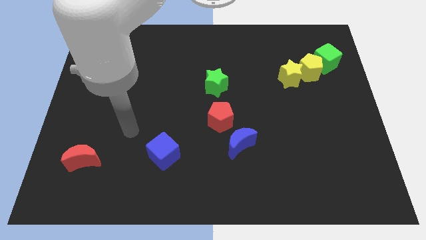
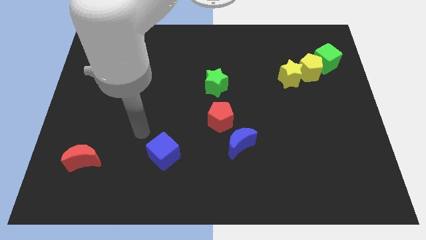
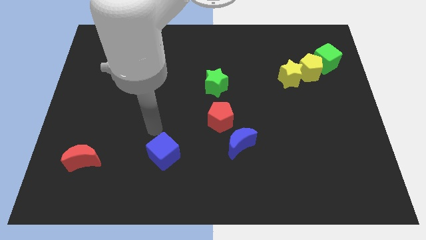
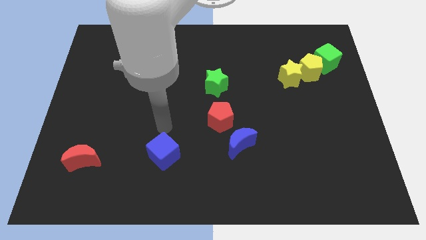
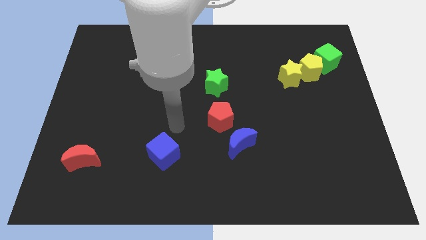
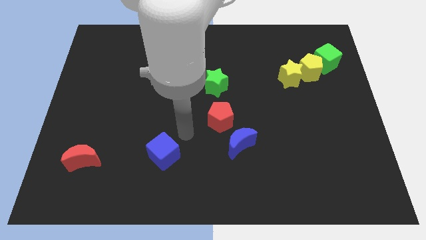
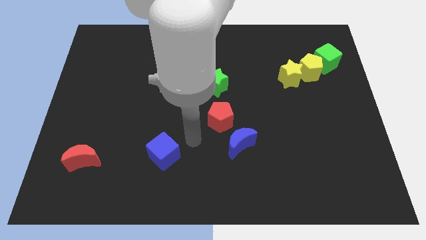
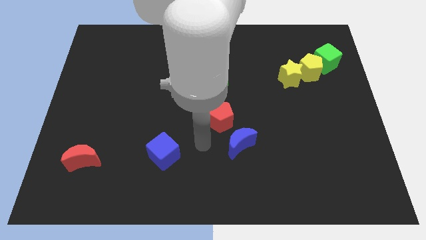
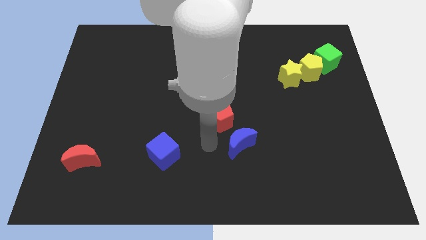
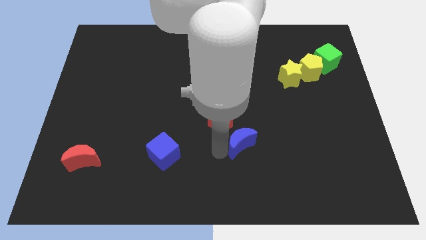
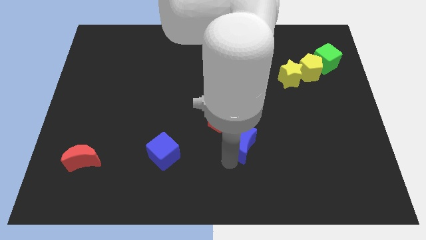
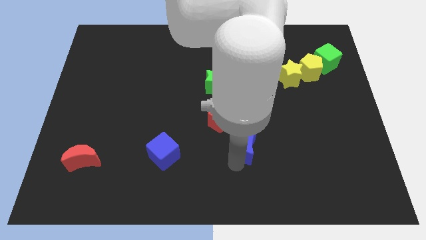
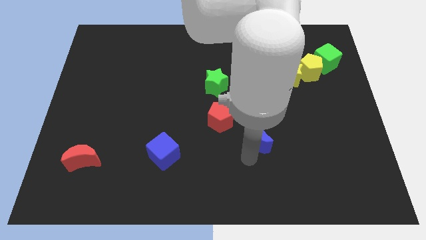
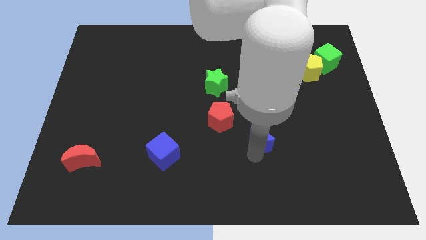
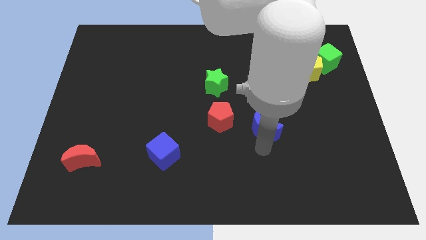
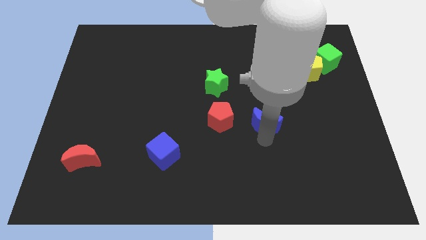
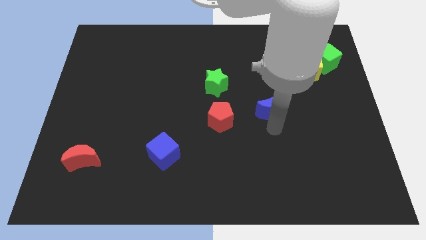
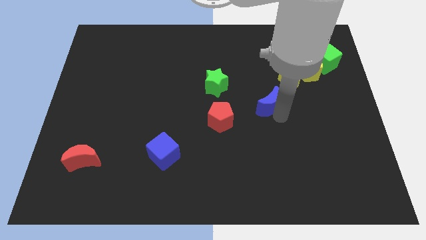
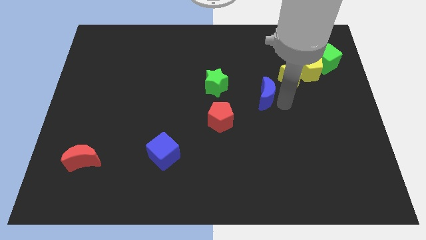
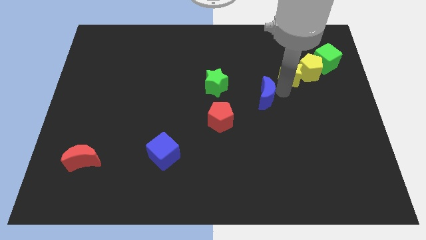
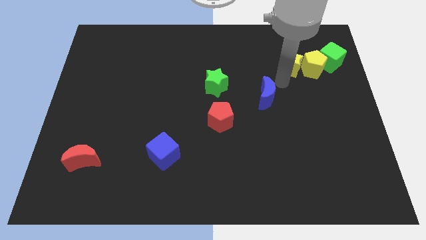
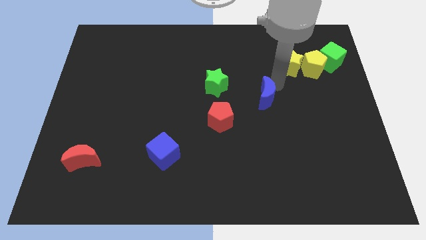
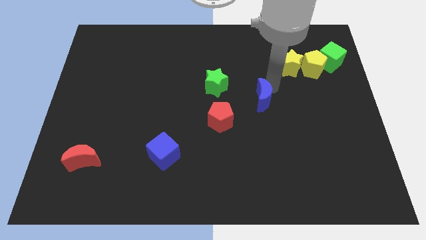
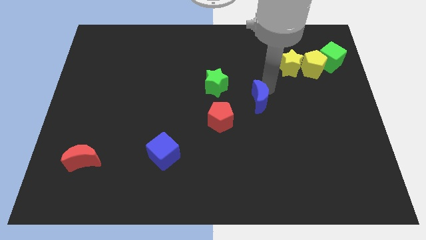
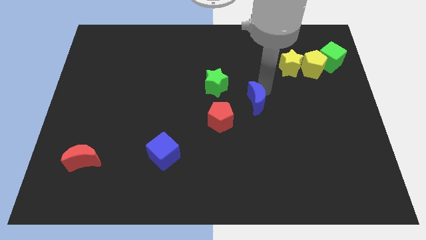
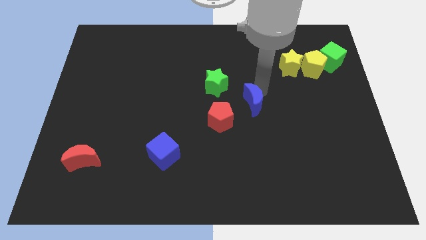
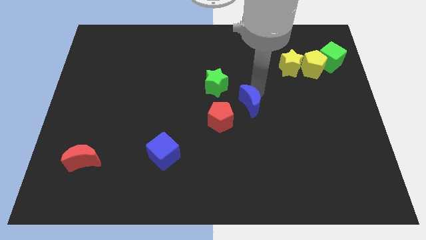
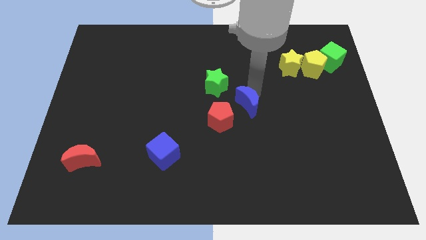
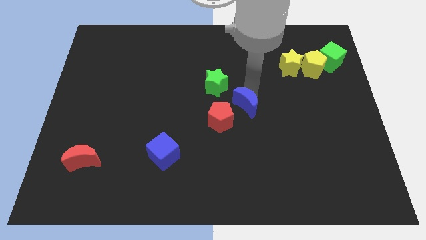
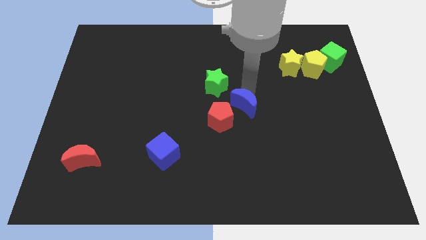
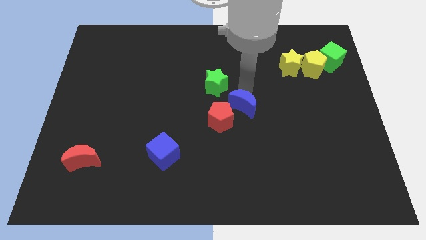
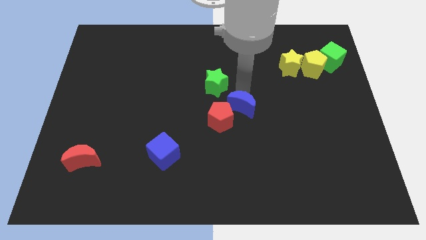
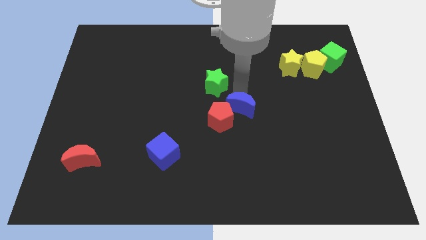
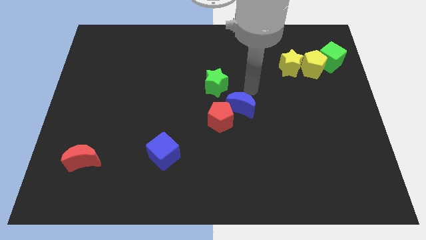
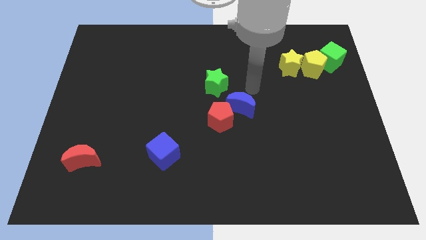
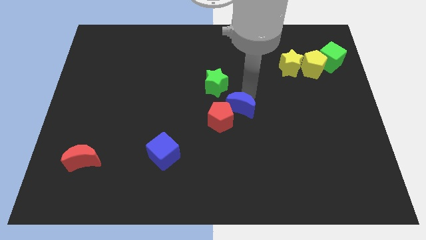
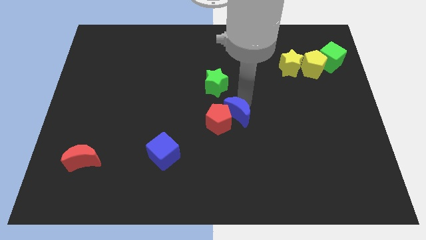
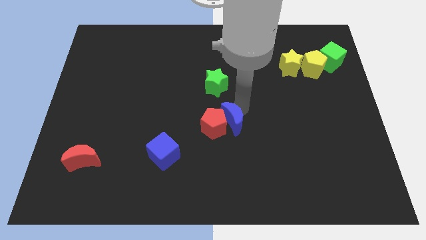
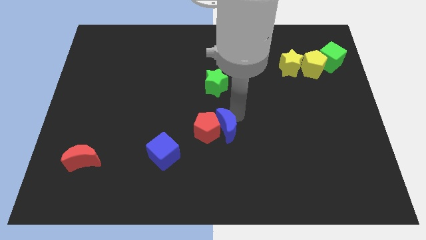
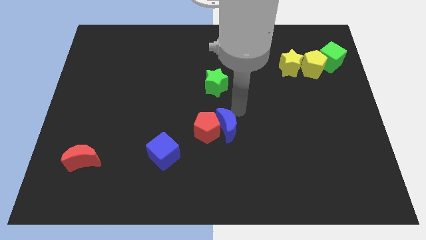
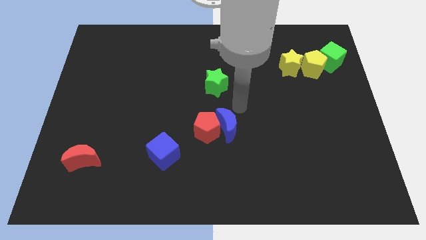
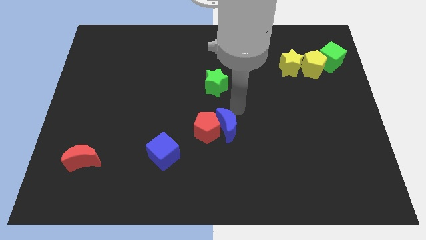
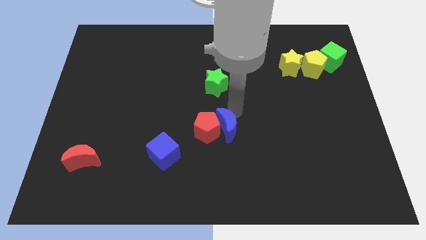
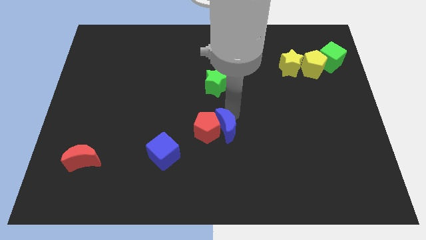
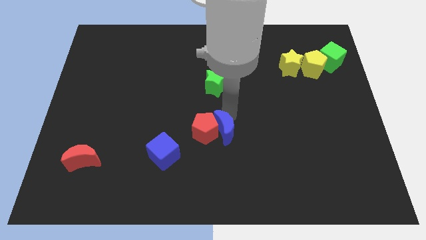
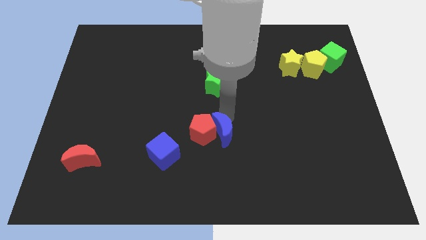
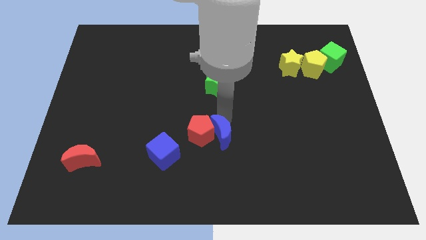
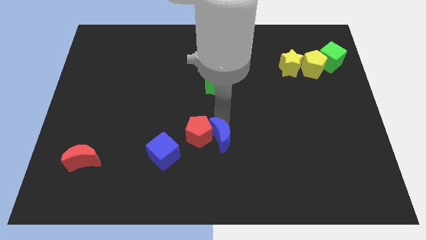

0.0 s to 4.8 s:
slide the blue moon to the right side of the blue cube

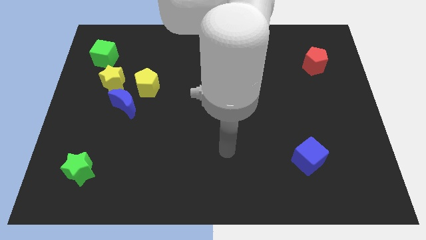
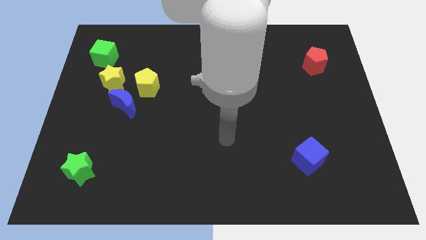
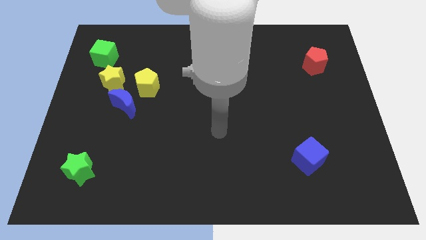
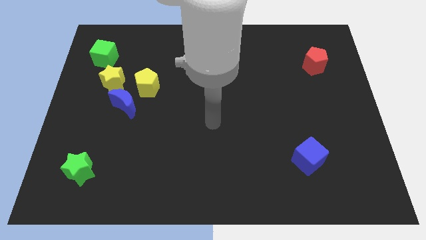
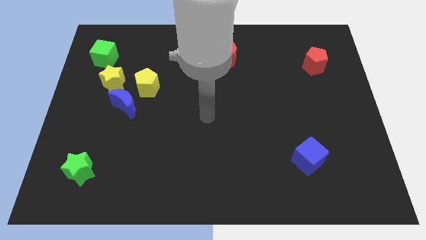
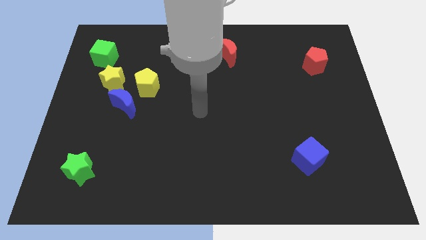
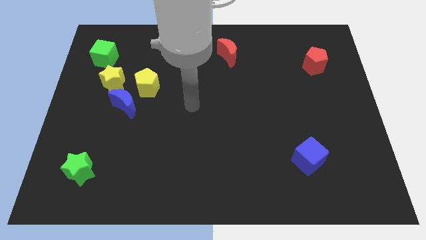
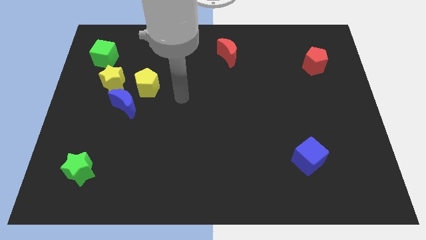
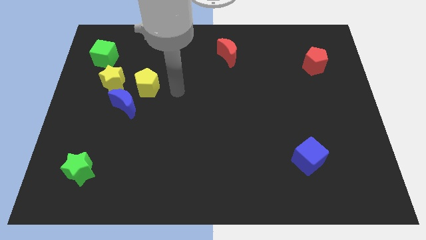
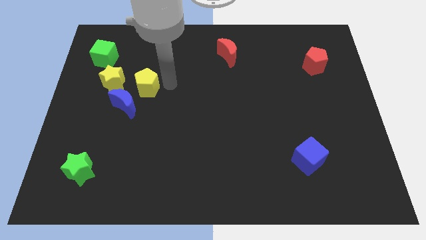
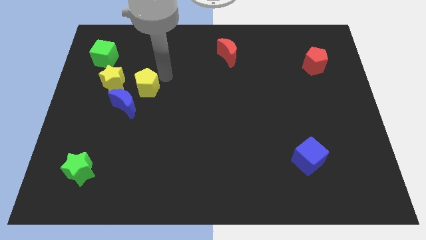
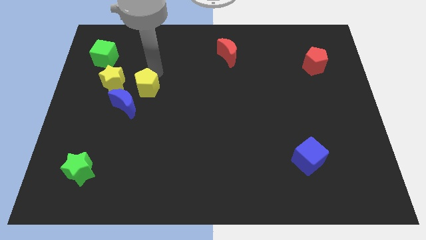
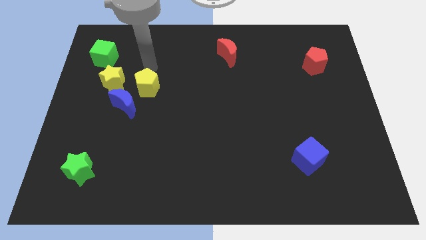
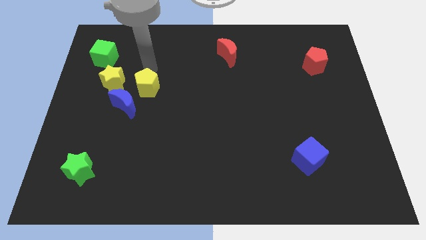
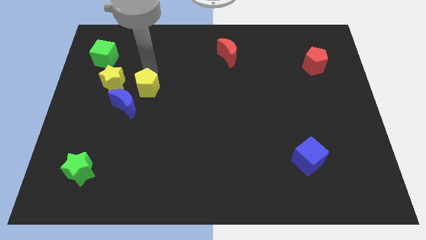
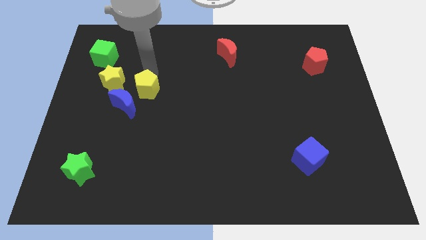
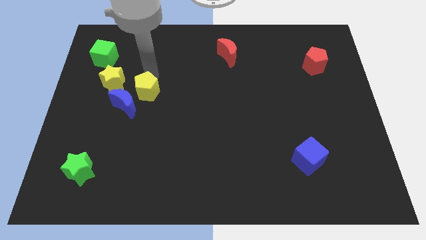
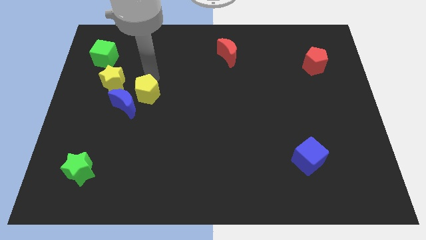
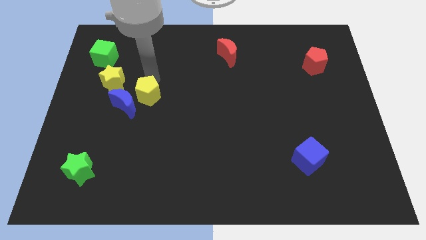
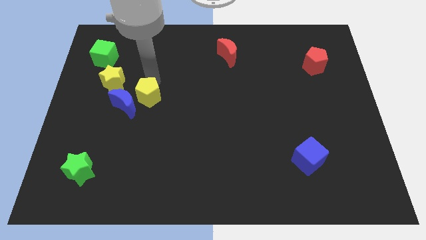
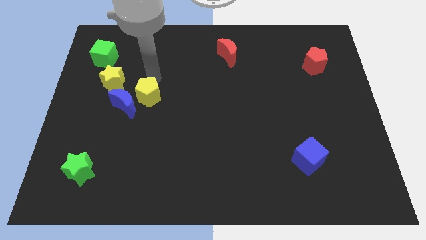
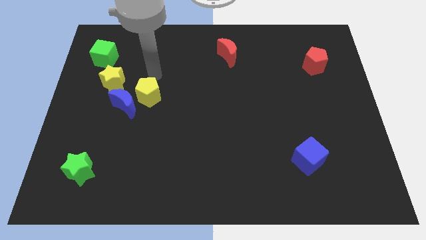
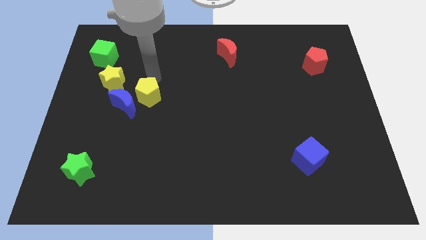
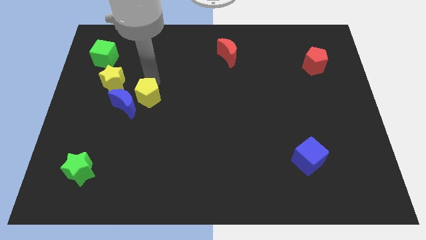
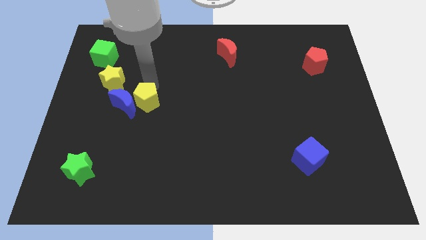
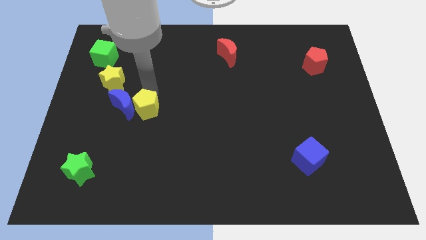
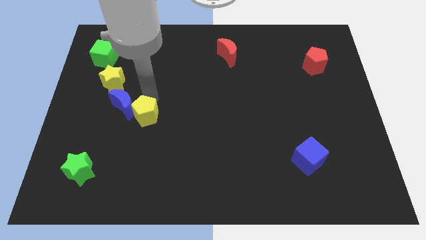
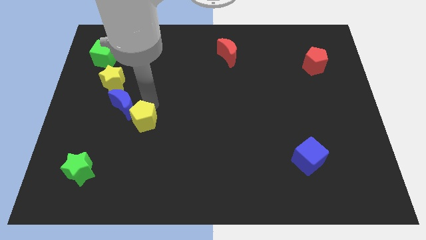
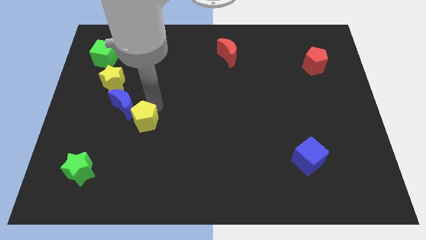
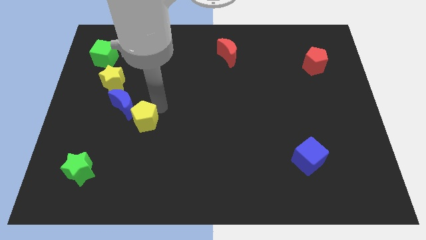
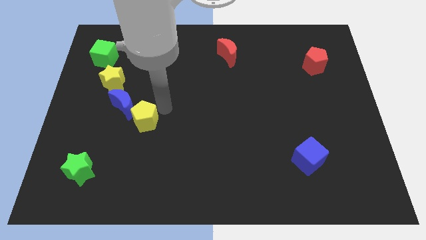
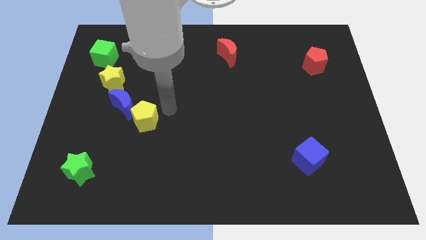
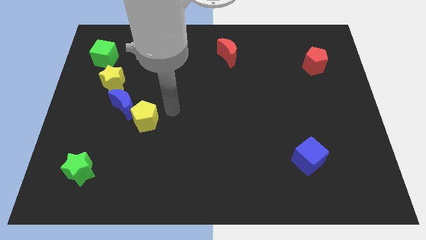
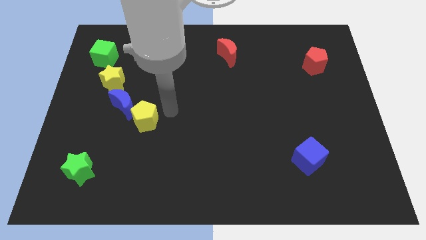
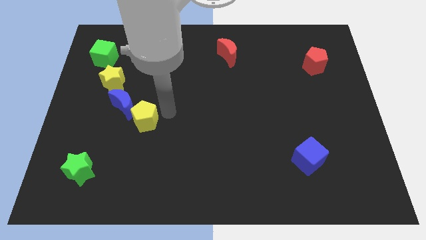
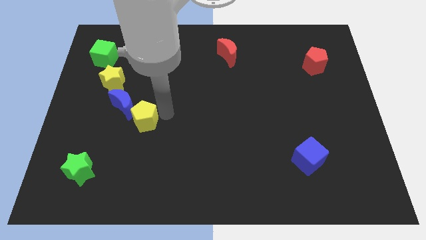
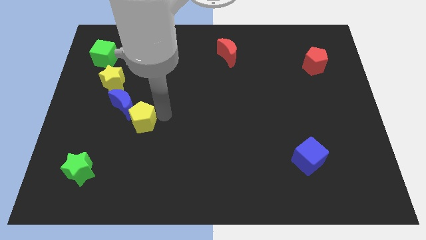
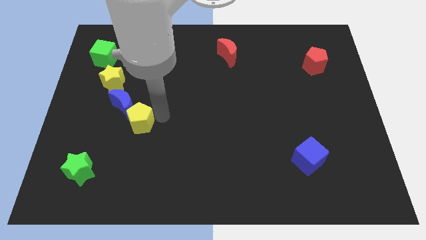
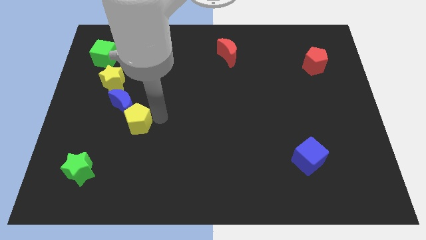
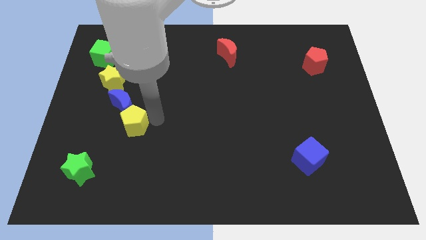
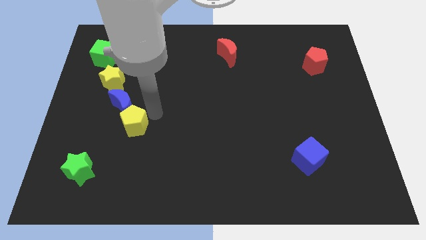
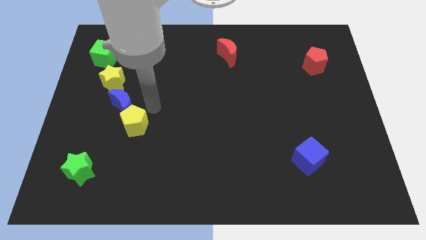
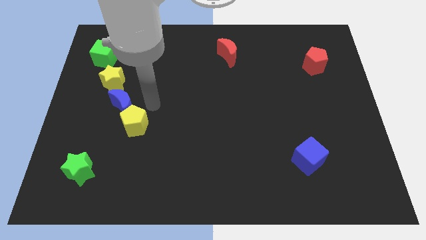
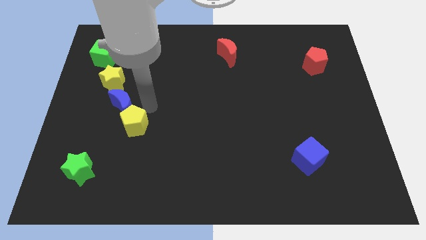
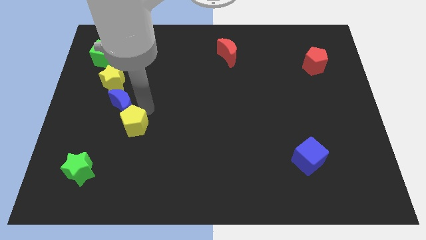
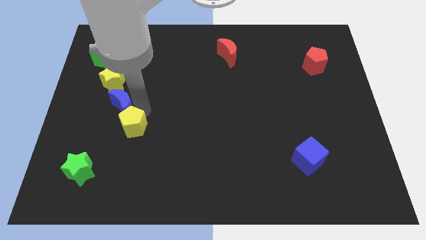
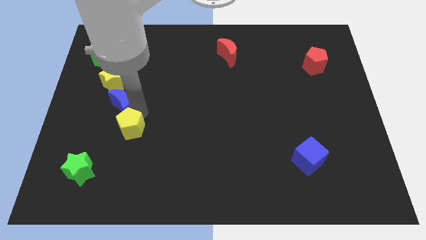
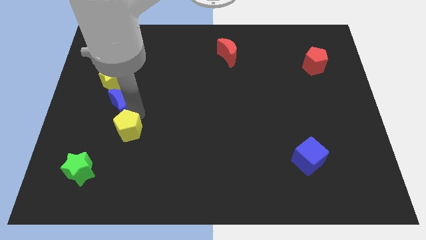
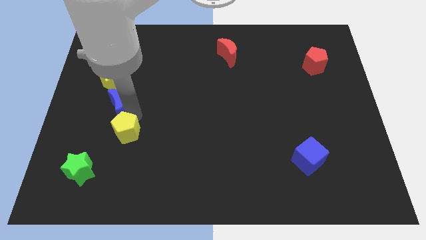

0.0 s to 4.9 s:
slide the yellow pentagon diagonally up and to the right of the green star
